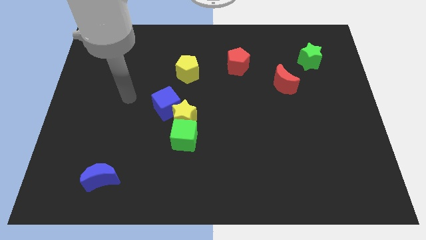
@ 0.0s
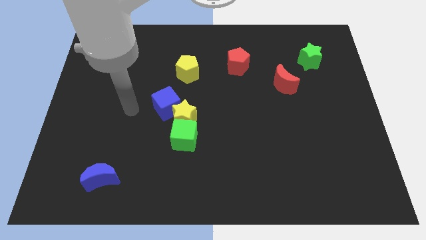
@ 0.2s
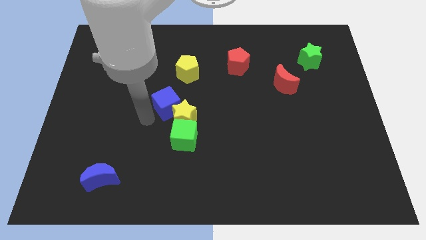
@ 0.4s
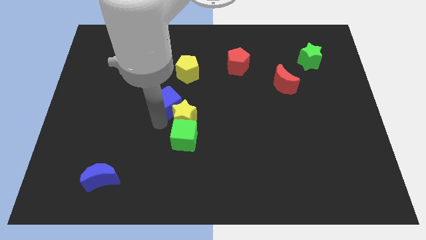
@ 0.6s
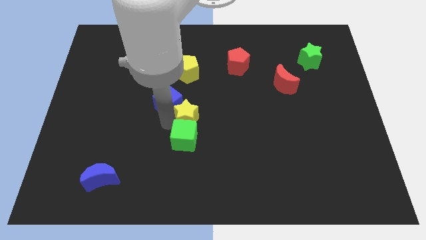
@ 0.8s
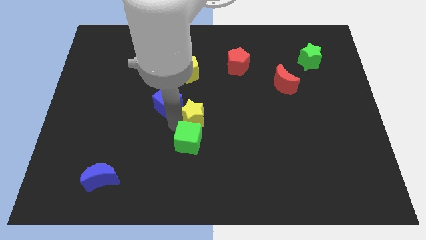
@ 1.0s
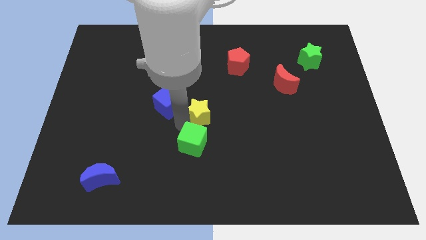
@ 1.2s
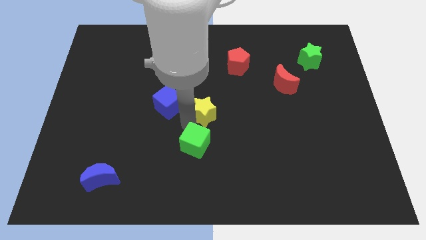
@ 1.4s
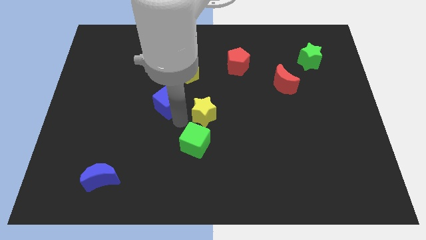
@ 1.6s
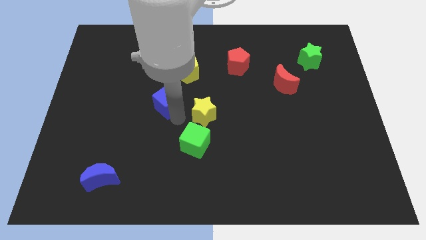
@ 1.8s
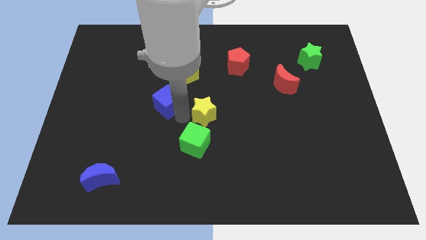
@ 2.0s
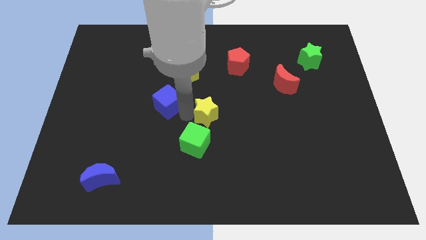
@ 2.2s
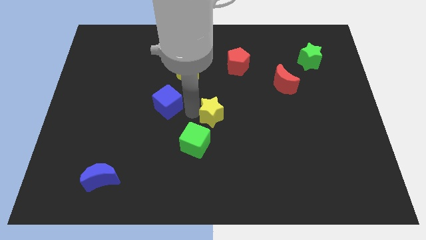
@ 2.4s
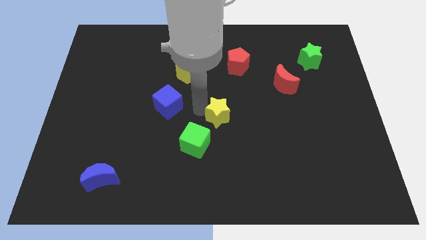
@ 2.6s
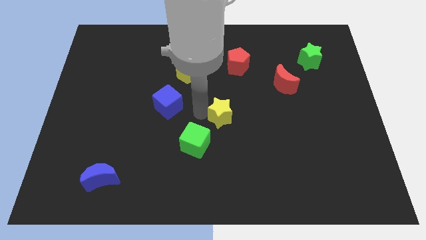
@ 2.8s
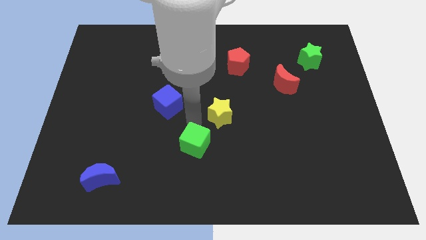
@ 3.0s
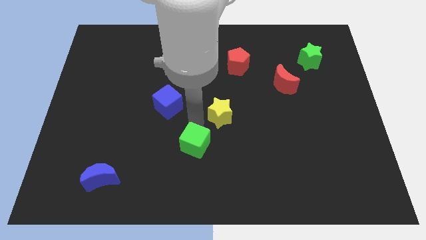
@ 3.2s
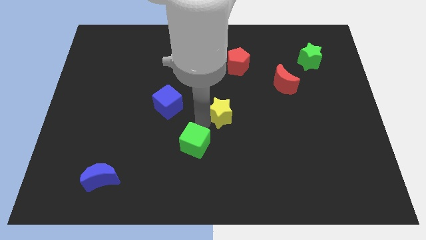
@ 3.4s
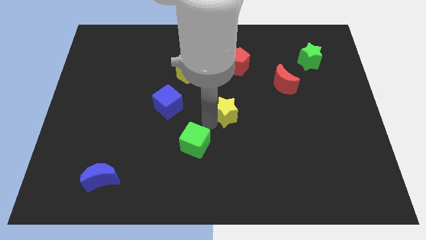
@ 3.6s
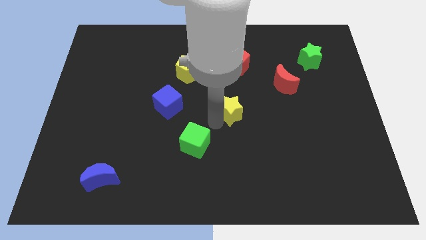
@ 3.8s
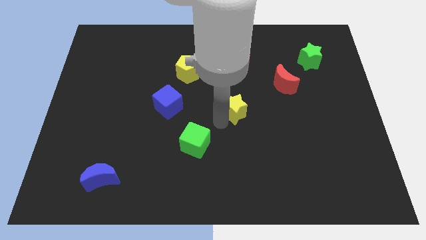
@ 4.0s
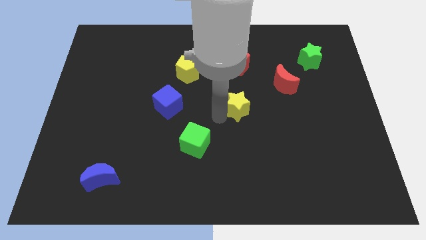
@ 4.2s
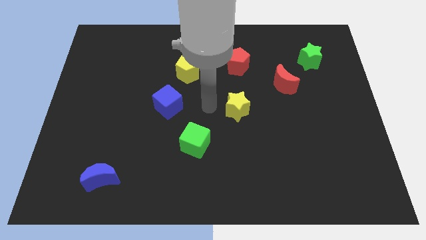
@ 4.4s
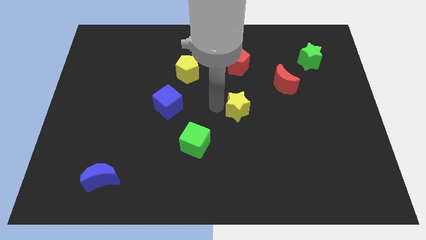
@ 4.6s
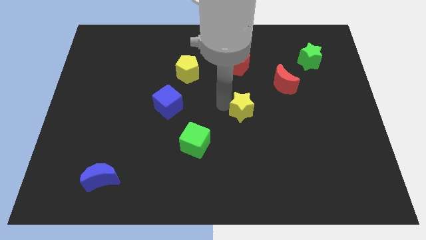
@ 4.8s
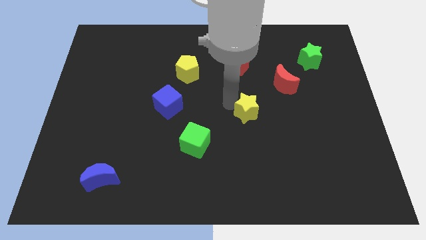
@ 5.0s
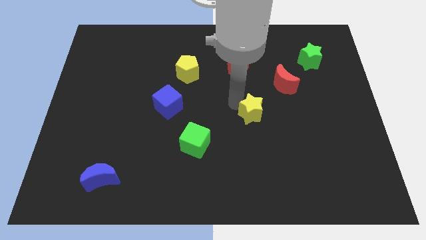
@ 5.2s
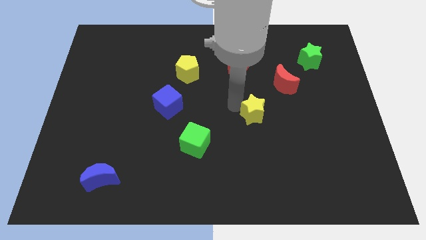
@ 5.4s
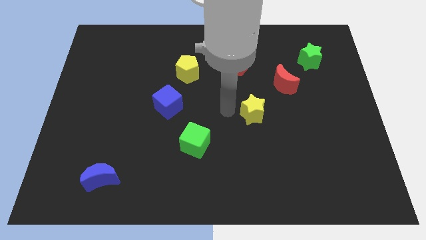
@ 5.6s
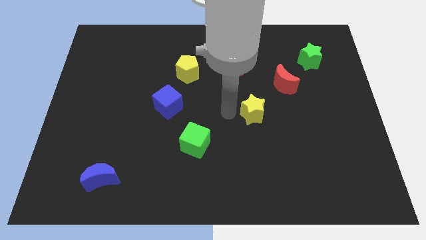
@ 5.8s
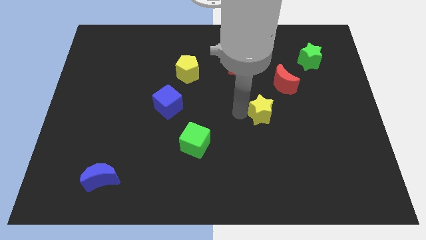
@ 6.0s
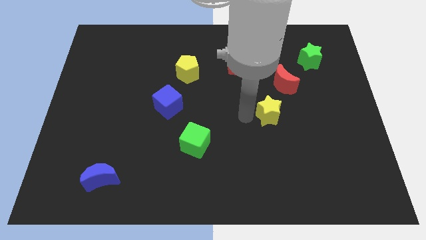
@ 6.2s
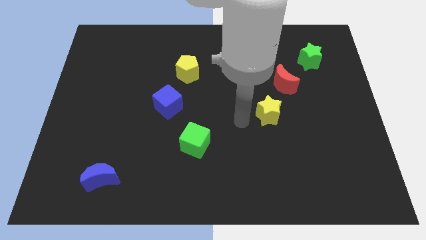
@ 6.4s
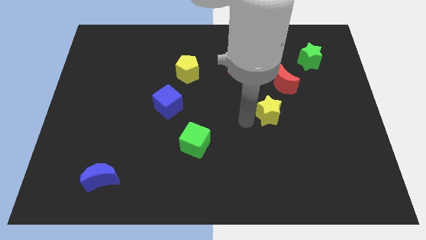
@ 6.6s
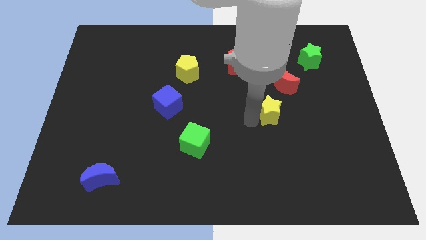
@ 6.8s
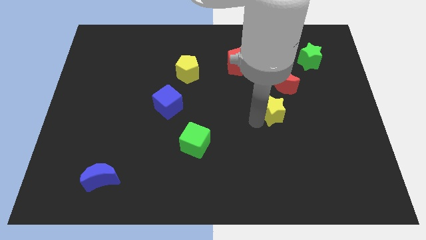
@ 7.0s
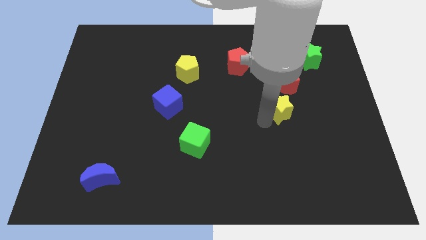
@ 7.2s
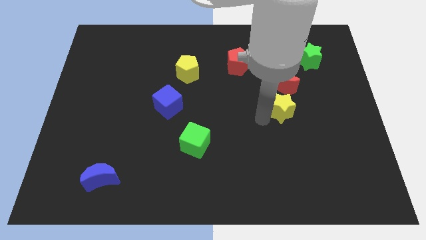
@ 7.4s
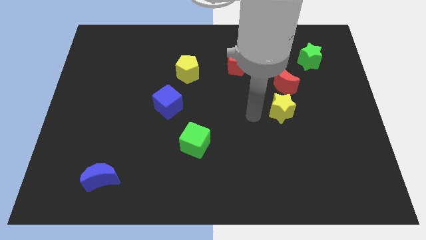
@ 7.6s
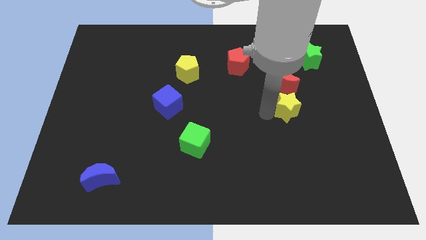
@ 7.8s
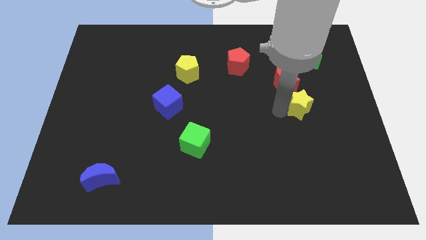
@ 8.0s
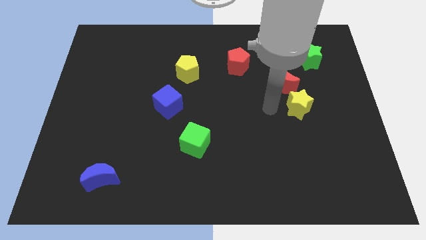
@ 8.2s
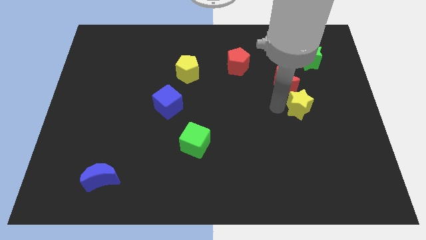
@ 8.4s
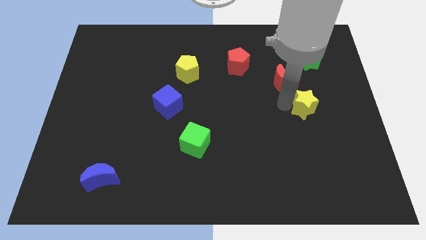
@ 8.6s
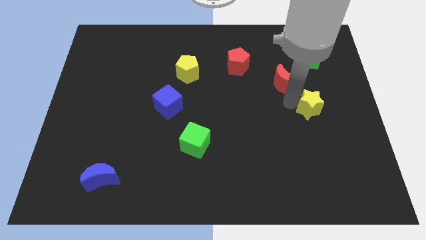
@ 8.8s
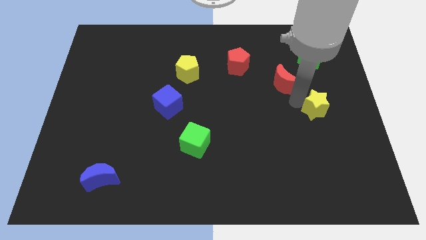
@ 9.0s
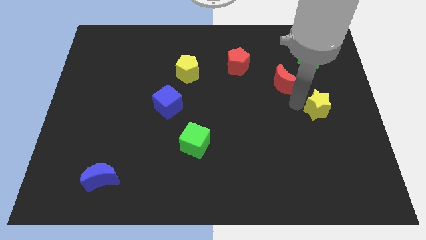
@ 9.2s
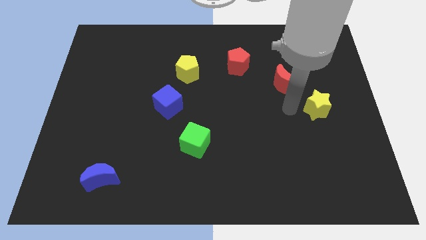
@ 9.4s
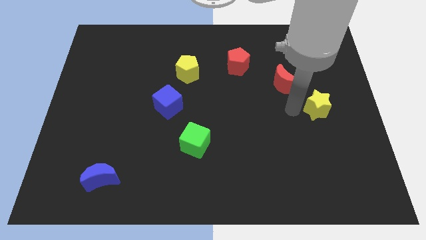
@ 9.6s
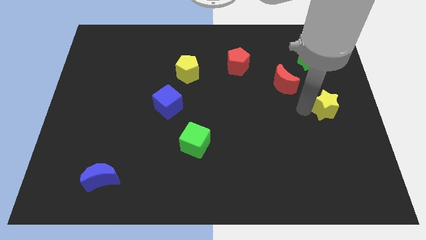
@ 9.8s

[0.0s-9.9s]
push the yellow star to the center right

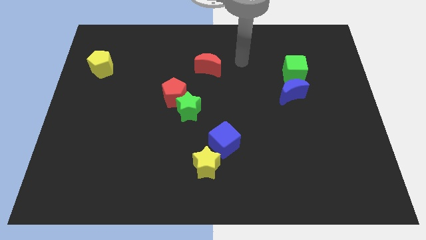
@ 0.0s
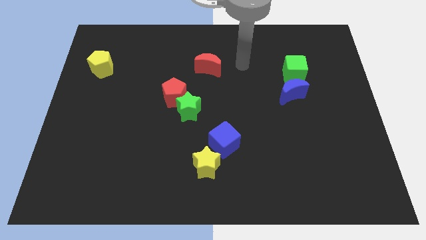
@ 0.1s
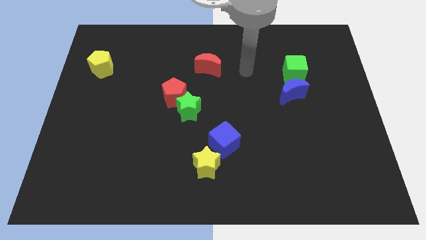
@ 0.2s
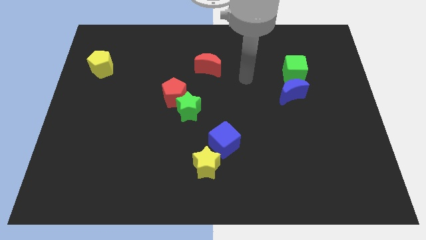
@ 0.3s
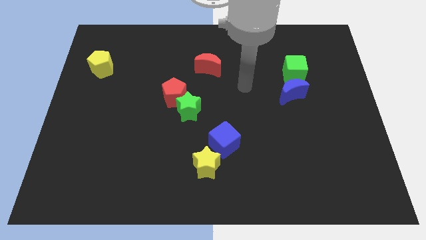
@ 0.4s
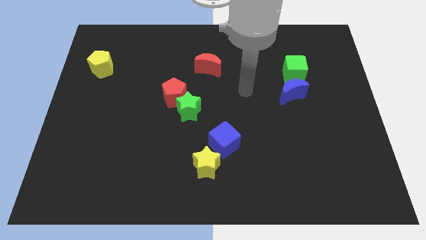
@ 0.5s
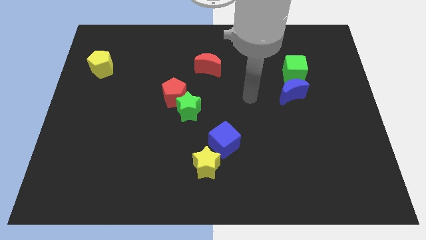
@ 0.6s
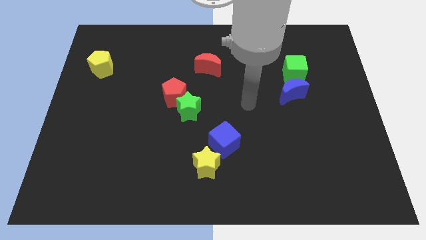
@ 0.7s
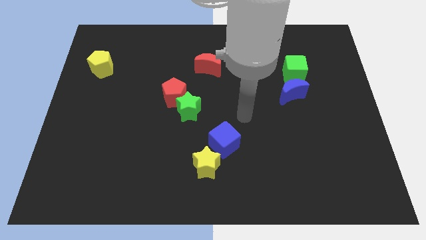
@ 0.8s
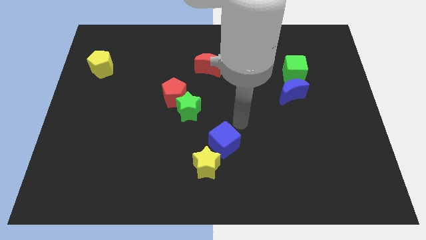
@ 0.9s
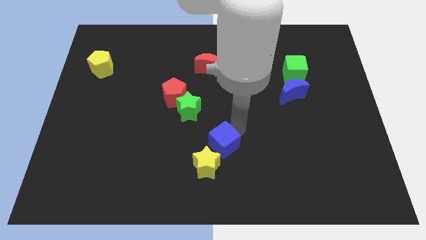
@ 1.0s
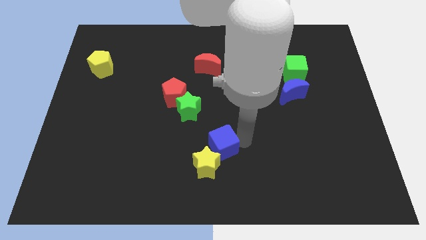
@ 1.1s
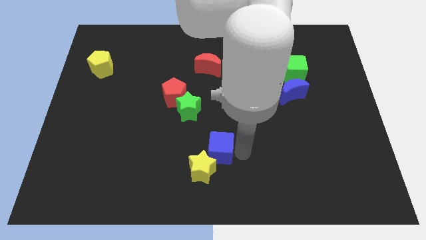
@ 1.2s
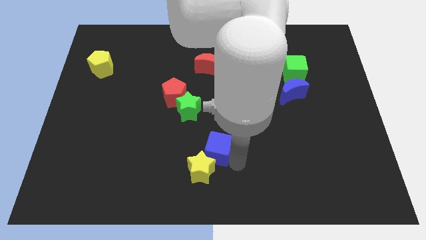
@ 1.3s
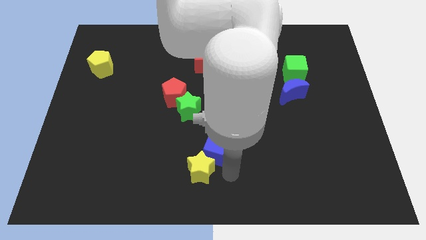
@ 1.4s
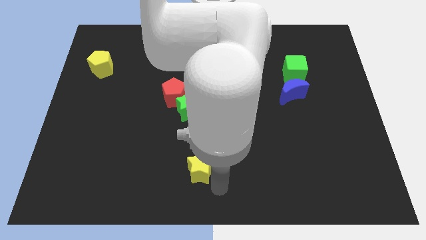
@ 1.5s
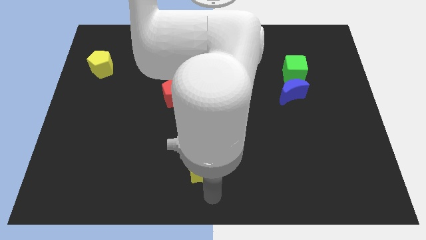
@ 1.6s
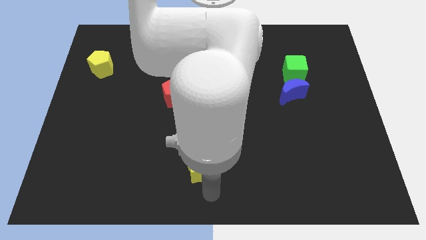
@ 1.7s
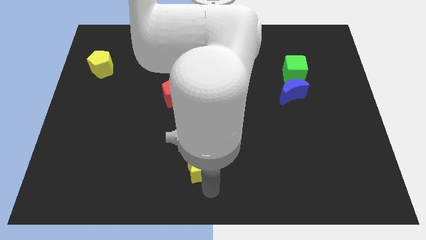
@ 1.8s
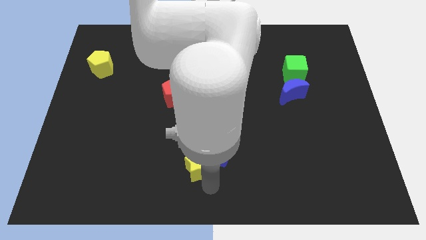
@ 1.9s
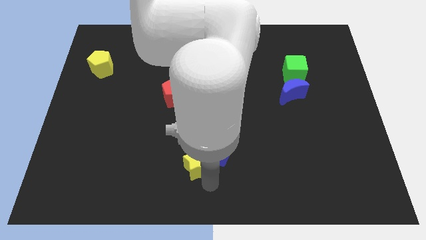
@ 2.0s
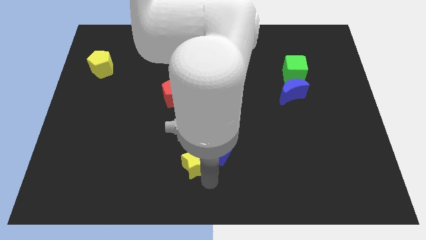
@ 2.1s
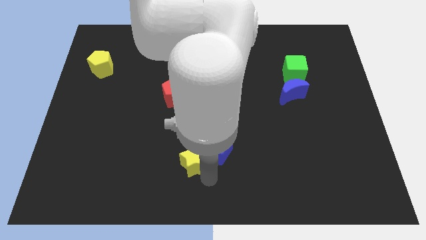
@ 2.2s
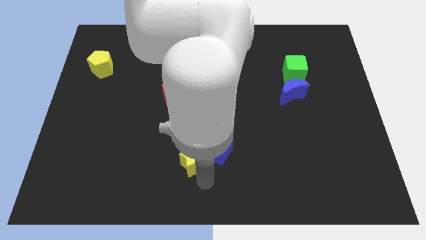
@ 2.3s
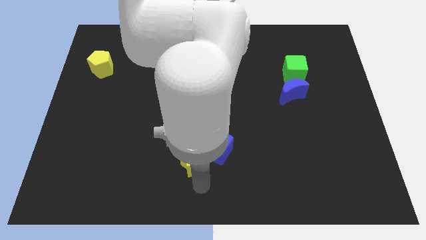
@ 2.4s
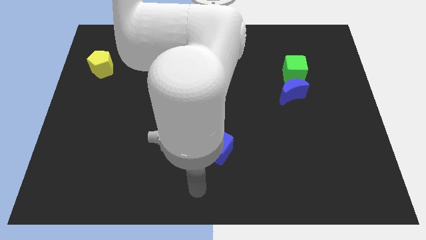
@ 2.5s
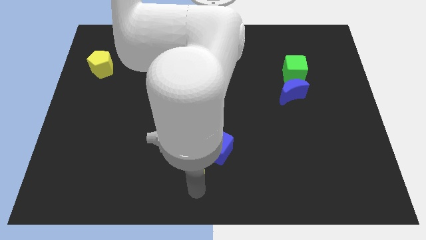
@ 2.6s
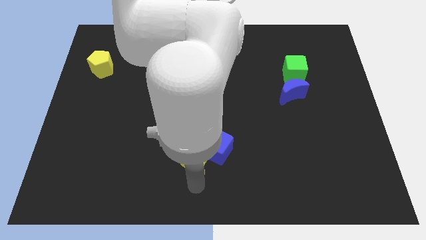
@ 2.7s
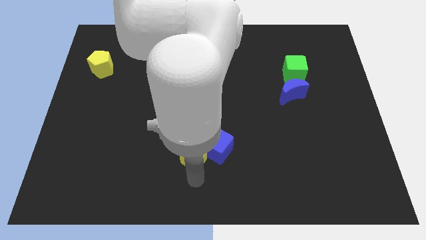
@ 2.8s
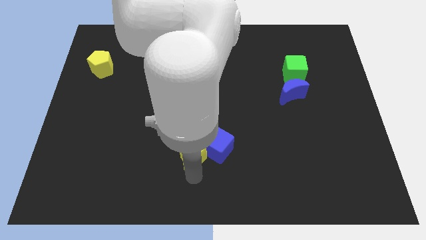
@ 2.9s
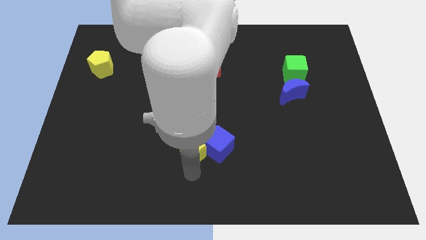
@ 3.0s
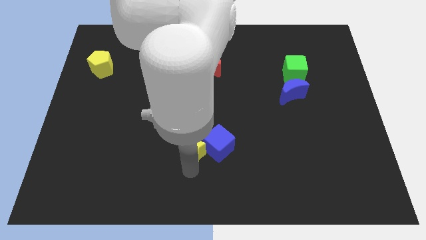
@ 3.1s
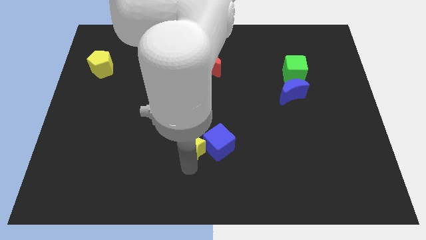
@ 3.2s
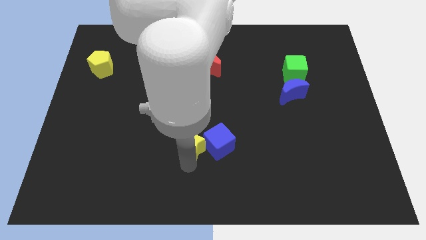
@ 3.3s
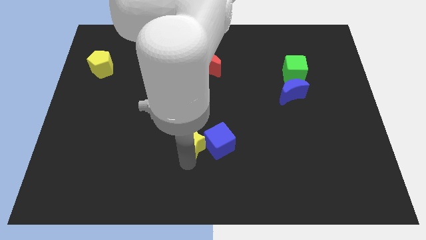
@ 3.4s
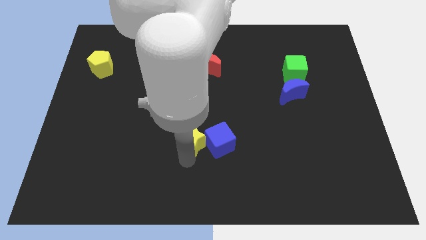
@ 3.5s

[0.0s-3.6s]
push the yellow star to the center
